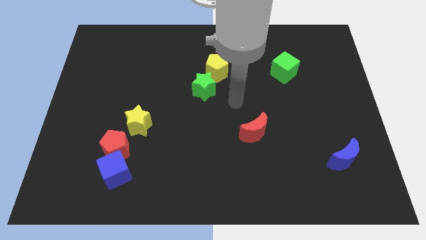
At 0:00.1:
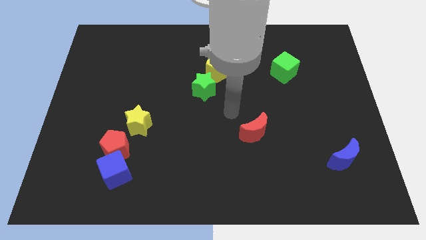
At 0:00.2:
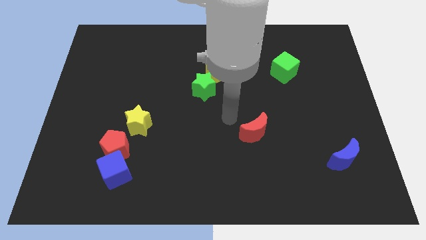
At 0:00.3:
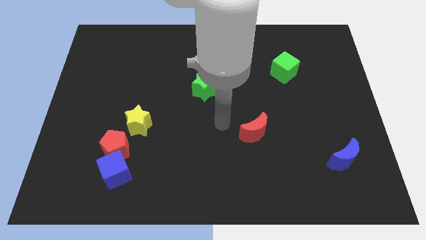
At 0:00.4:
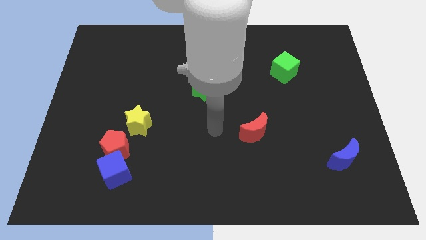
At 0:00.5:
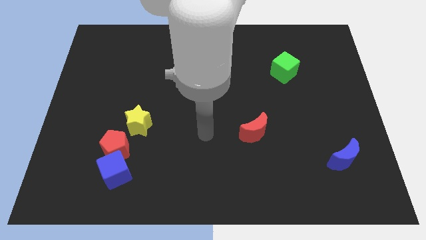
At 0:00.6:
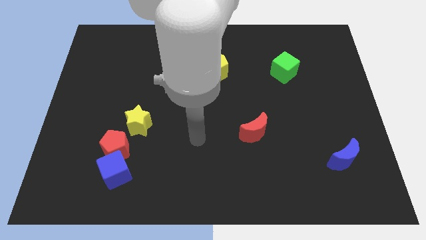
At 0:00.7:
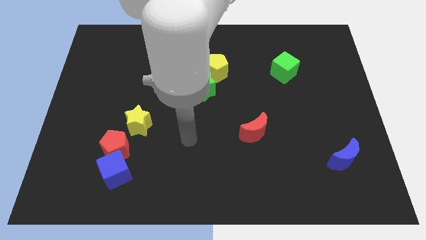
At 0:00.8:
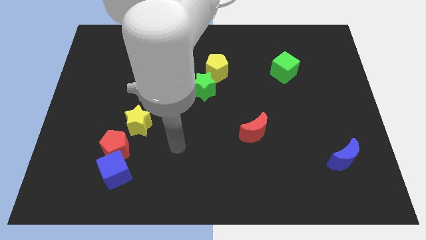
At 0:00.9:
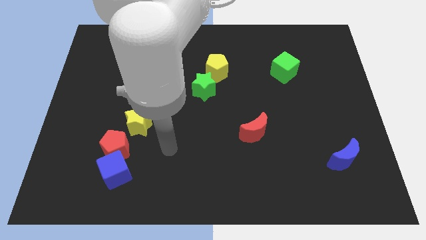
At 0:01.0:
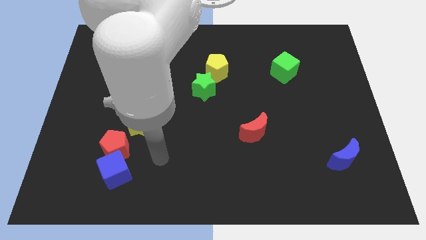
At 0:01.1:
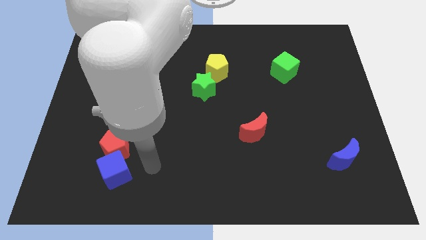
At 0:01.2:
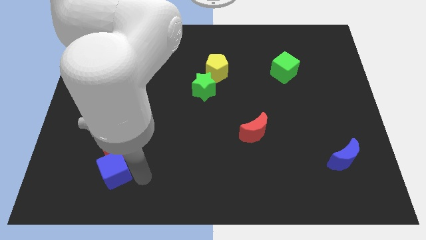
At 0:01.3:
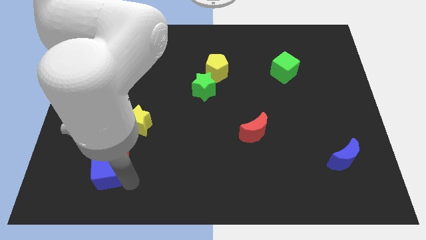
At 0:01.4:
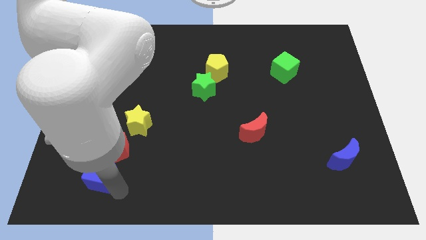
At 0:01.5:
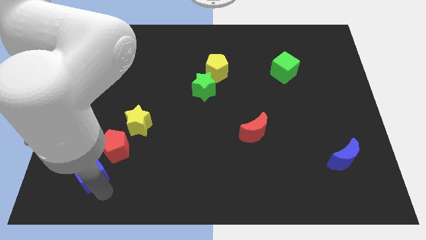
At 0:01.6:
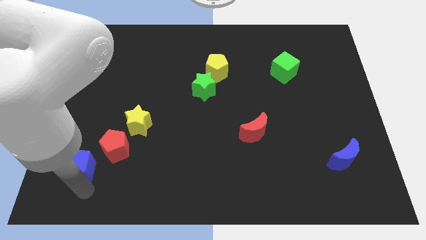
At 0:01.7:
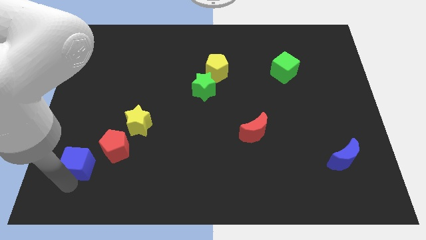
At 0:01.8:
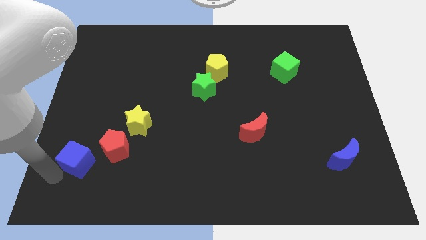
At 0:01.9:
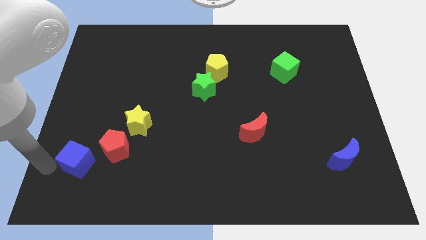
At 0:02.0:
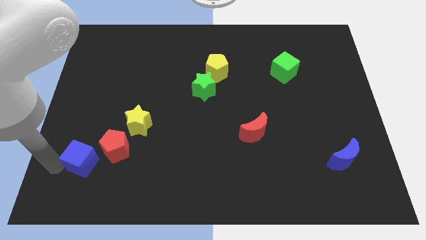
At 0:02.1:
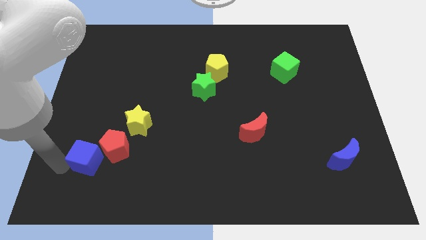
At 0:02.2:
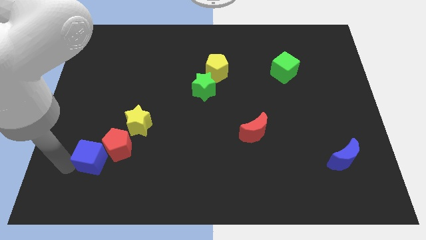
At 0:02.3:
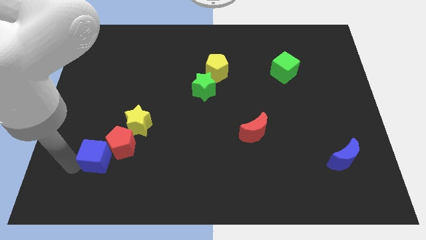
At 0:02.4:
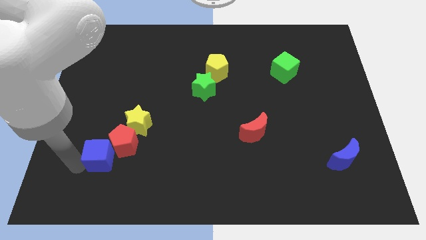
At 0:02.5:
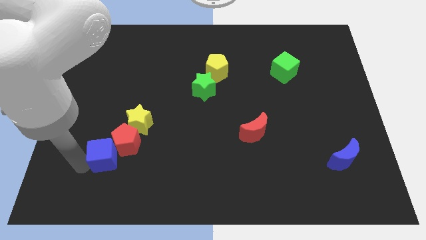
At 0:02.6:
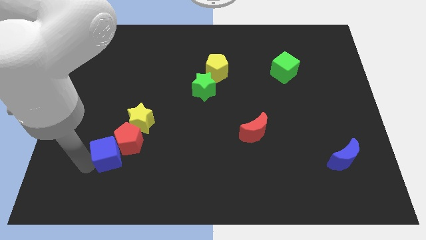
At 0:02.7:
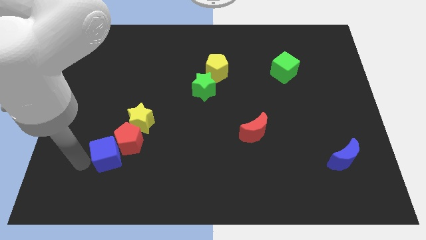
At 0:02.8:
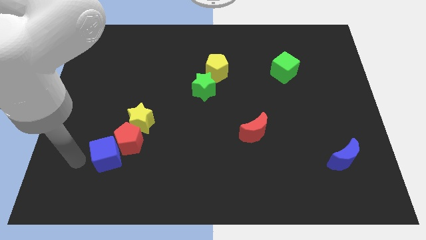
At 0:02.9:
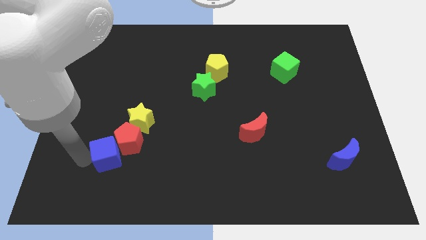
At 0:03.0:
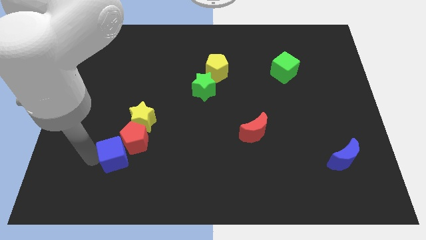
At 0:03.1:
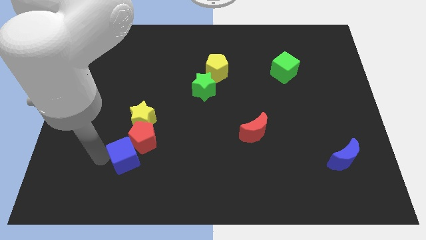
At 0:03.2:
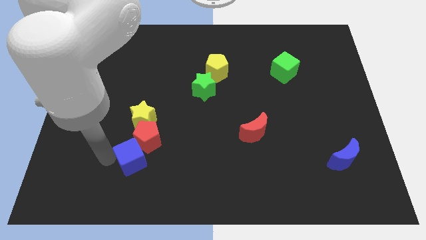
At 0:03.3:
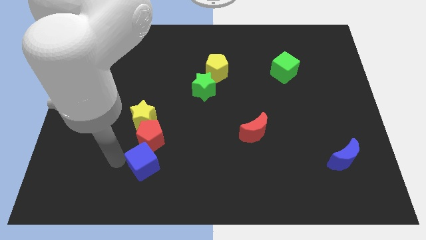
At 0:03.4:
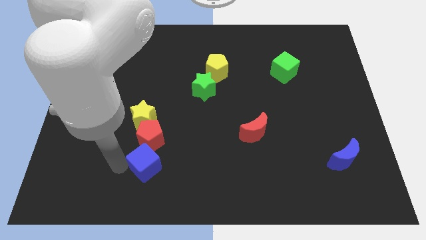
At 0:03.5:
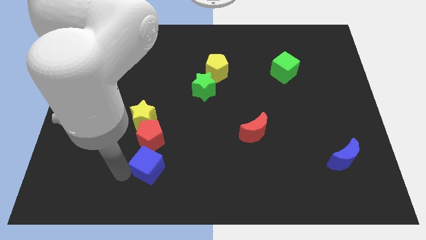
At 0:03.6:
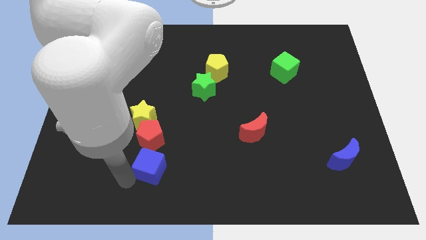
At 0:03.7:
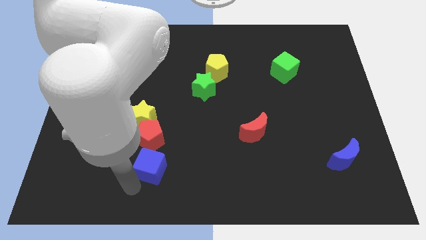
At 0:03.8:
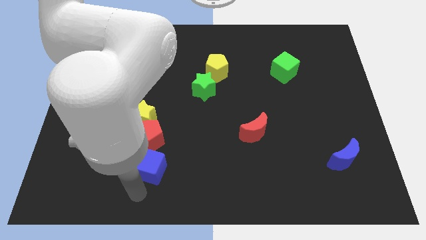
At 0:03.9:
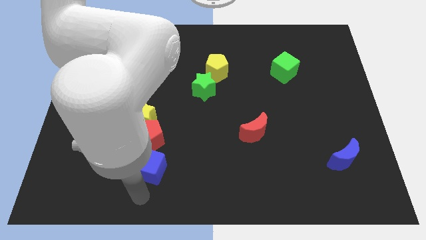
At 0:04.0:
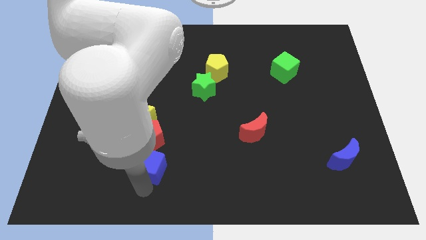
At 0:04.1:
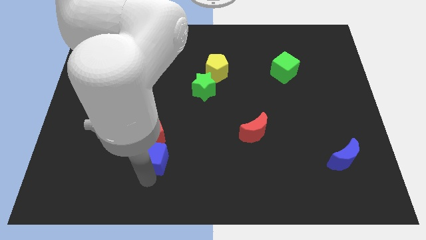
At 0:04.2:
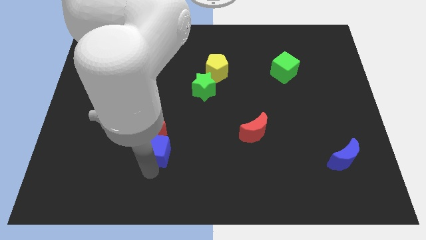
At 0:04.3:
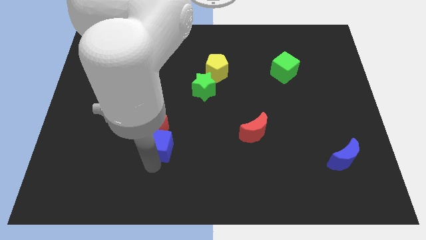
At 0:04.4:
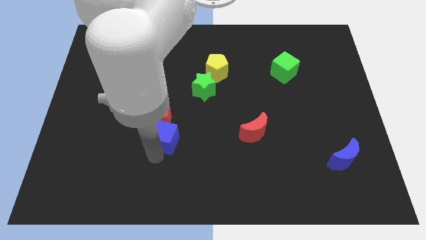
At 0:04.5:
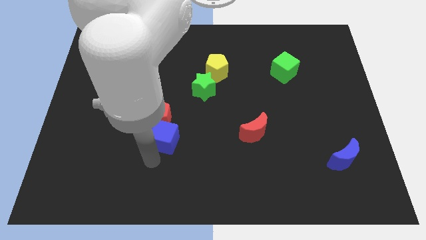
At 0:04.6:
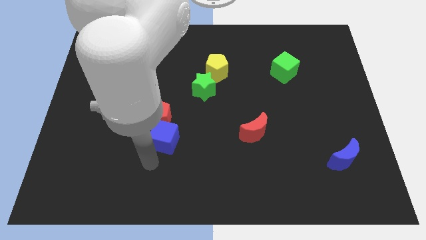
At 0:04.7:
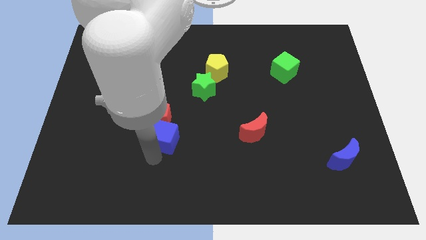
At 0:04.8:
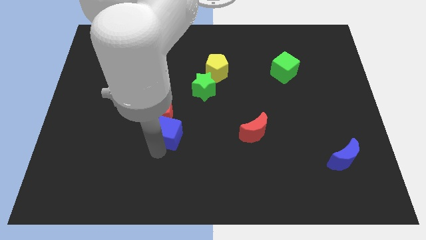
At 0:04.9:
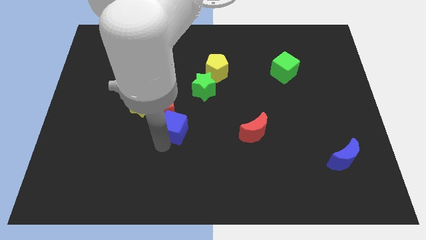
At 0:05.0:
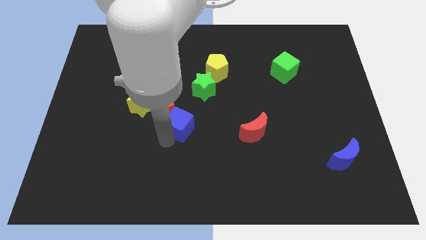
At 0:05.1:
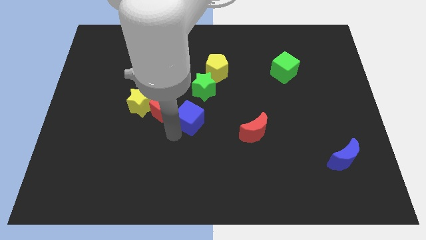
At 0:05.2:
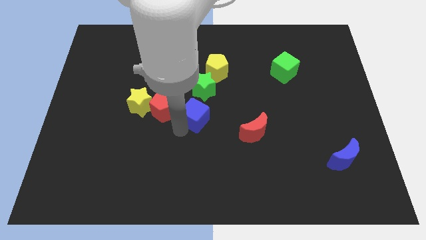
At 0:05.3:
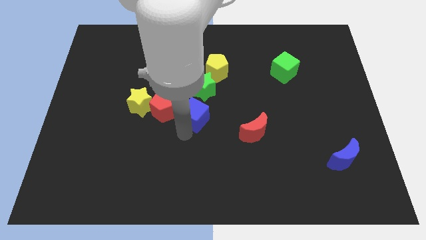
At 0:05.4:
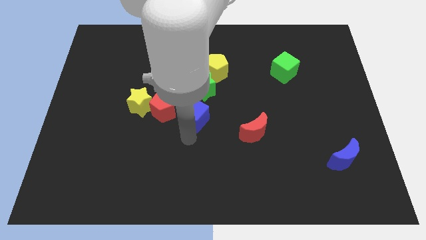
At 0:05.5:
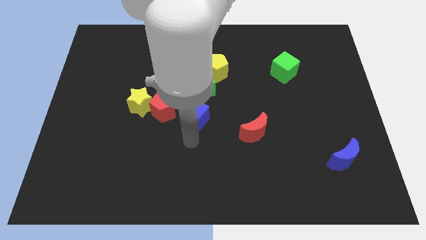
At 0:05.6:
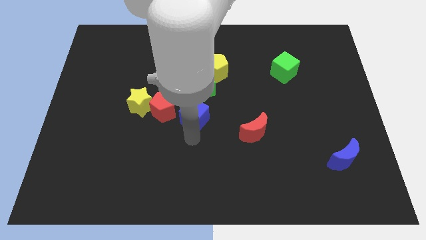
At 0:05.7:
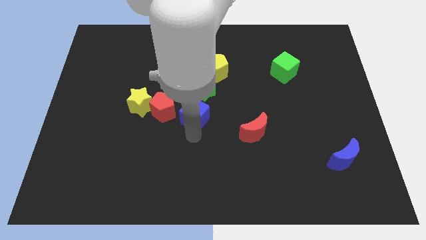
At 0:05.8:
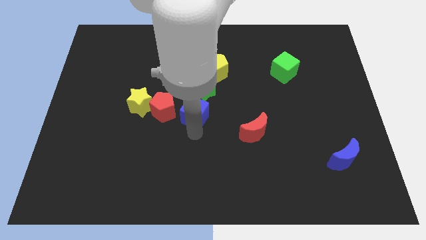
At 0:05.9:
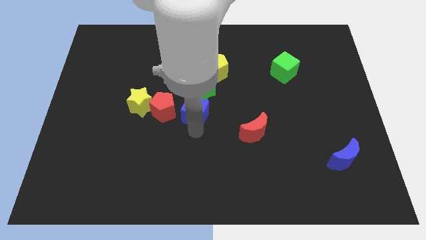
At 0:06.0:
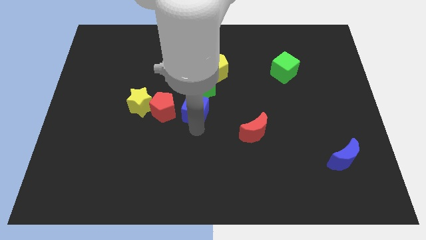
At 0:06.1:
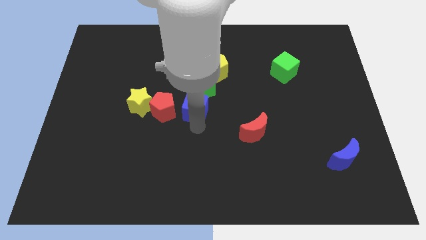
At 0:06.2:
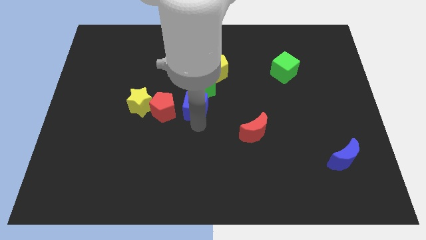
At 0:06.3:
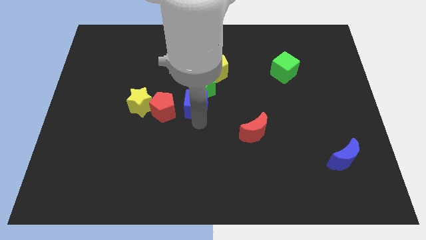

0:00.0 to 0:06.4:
slide the blue cube next to the green star

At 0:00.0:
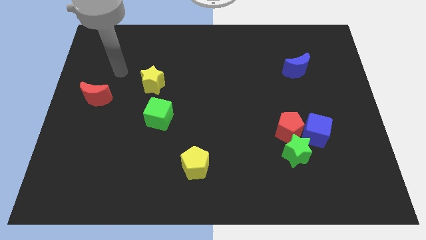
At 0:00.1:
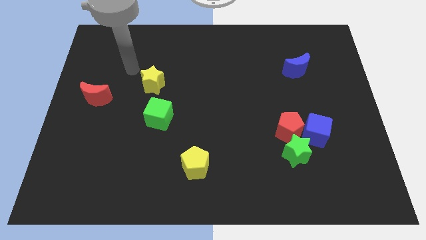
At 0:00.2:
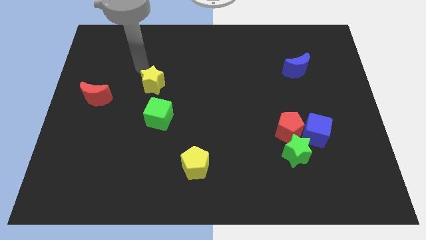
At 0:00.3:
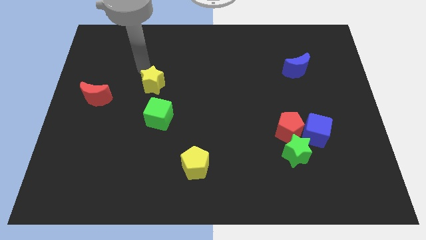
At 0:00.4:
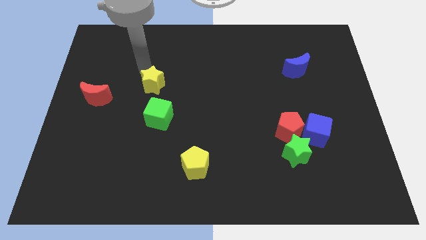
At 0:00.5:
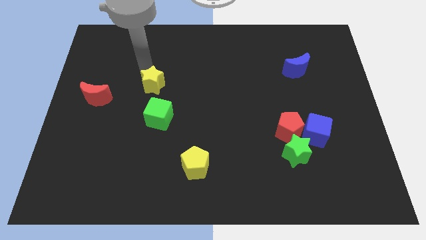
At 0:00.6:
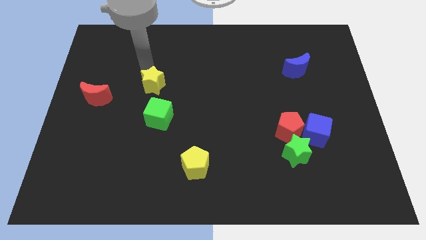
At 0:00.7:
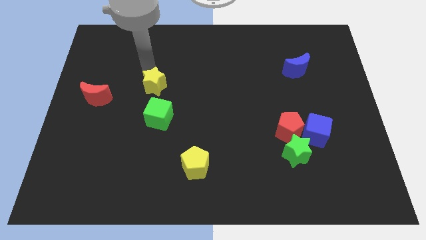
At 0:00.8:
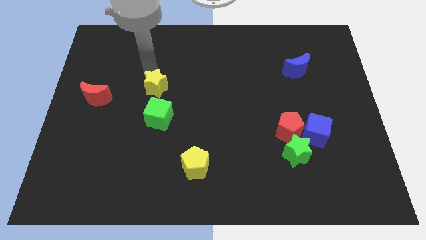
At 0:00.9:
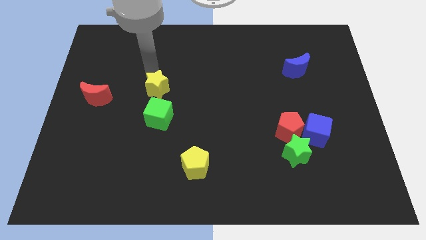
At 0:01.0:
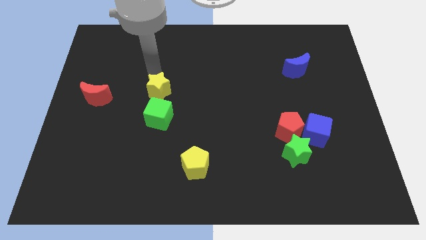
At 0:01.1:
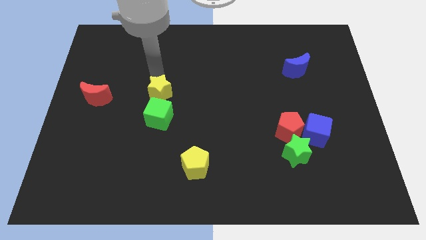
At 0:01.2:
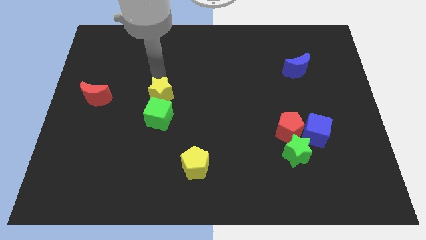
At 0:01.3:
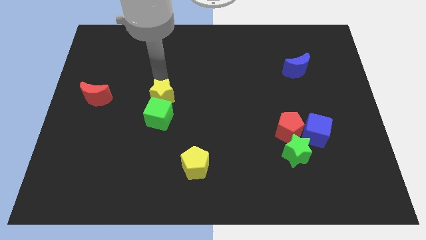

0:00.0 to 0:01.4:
move the yellow star next to the green cube

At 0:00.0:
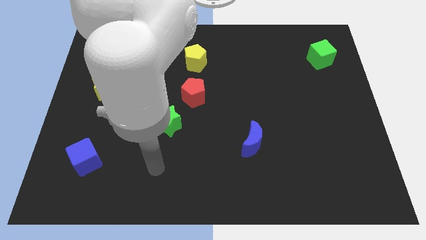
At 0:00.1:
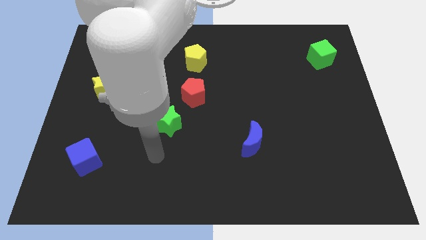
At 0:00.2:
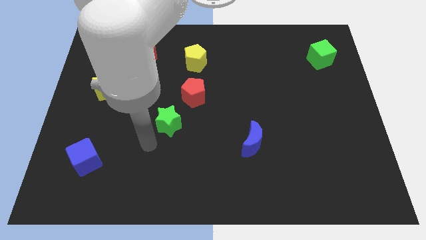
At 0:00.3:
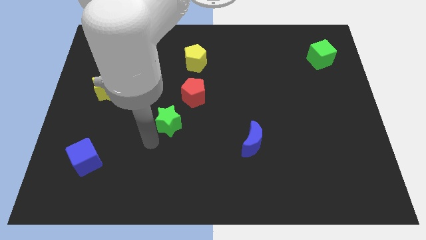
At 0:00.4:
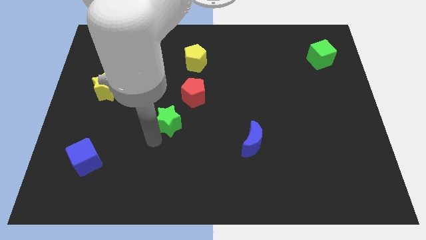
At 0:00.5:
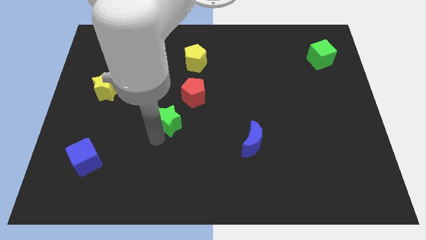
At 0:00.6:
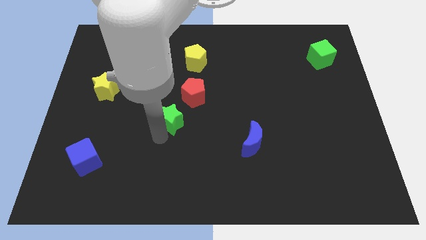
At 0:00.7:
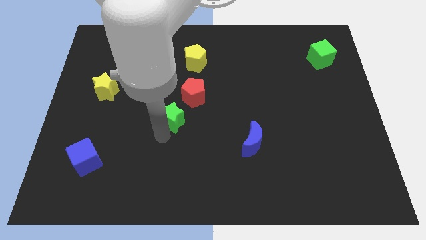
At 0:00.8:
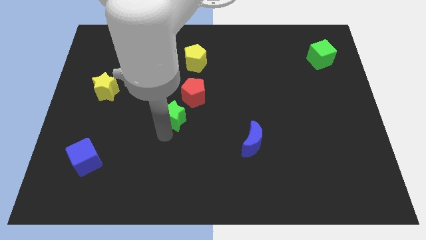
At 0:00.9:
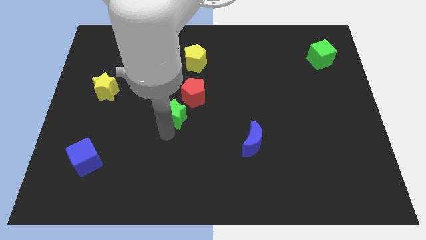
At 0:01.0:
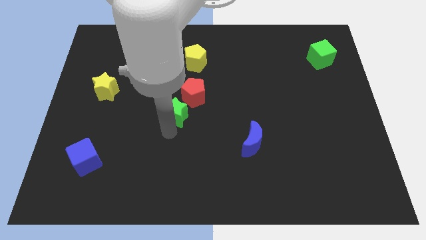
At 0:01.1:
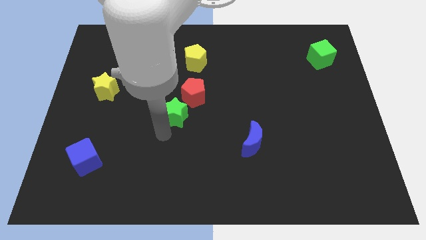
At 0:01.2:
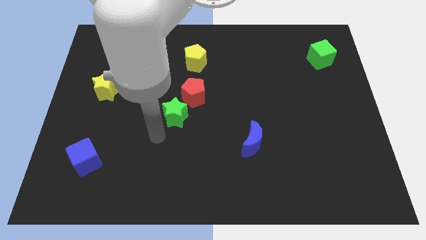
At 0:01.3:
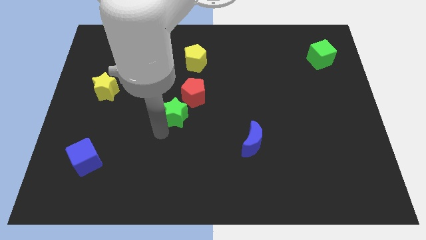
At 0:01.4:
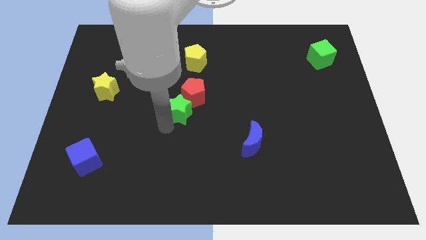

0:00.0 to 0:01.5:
move the green star to the red pentagon
